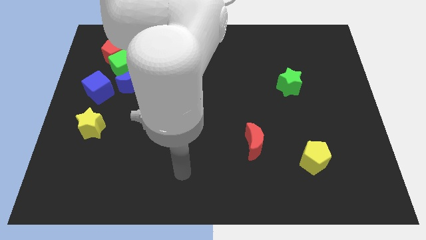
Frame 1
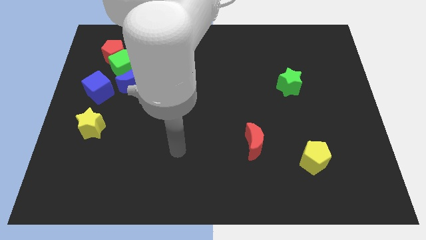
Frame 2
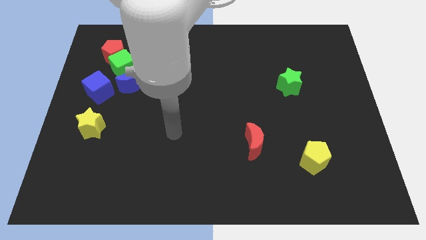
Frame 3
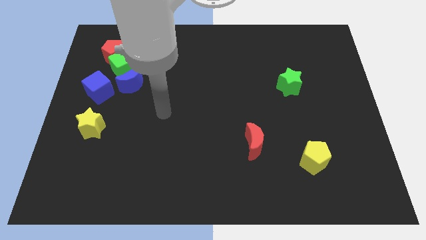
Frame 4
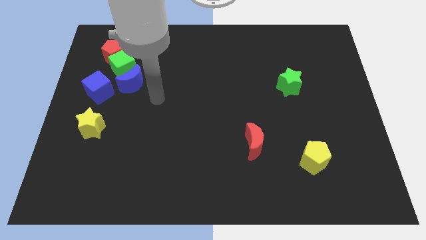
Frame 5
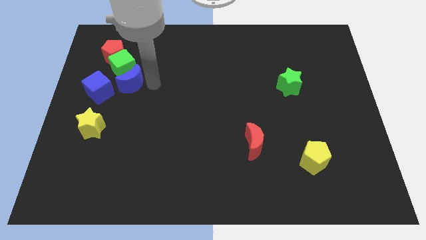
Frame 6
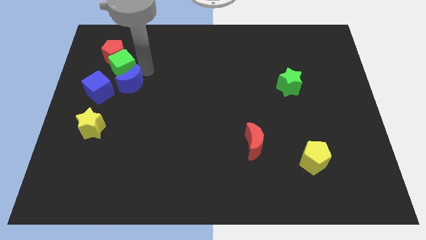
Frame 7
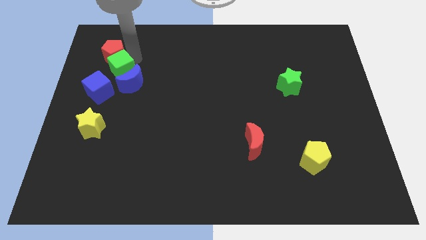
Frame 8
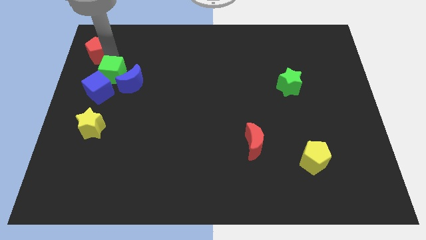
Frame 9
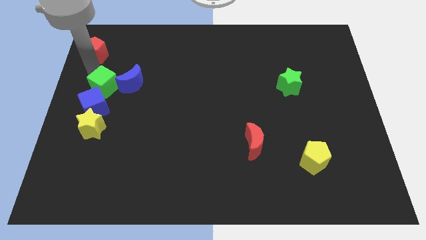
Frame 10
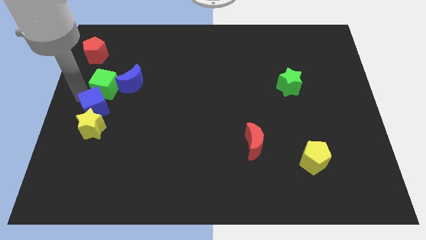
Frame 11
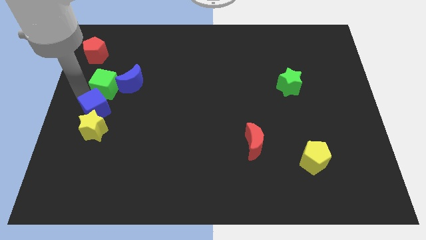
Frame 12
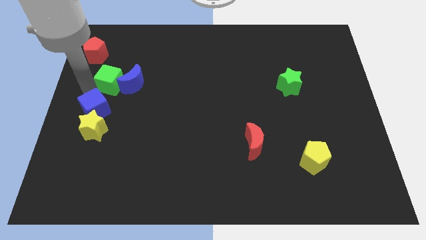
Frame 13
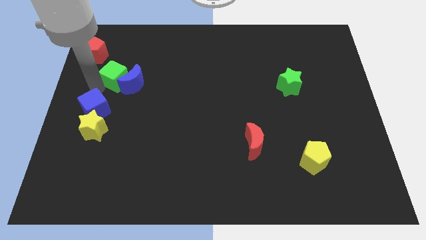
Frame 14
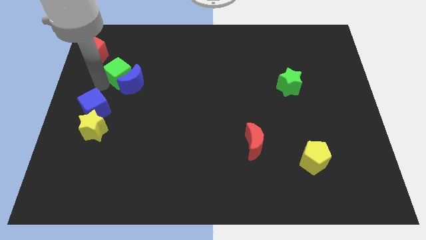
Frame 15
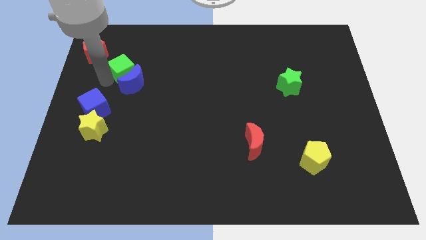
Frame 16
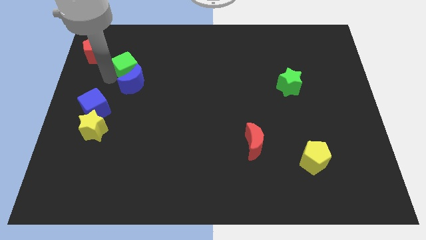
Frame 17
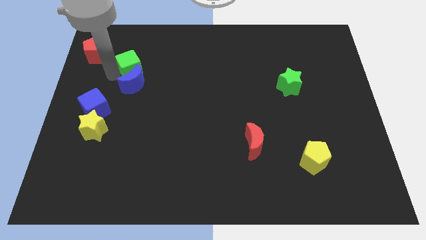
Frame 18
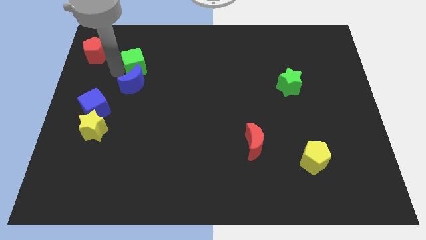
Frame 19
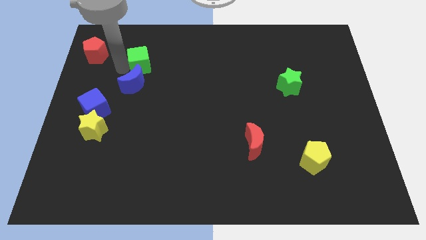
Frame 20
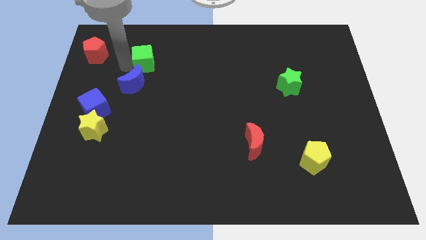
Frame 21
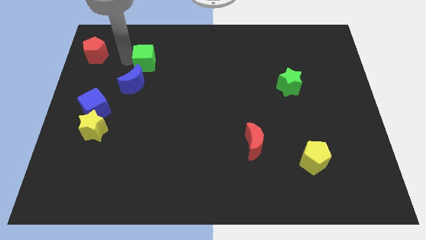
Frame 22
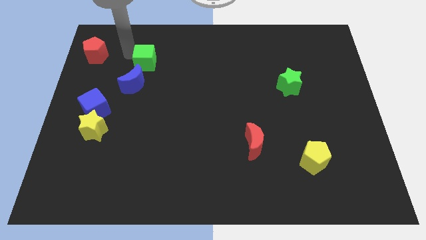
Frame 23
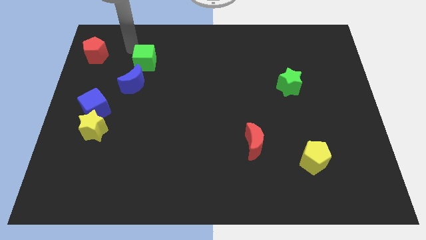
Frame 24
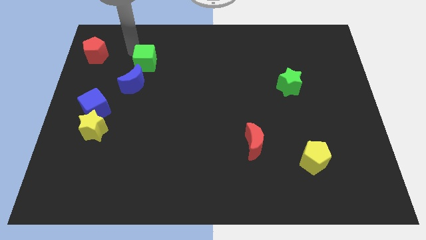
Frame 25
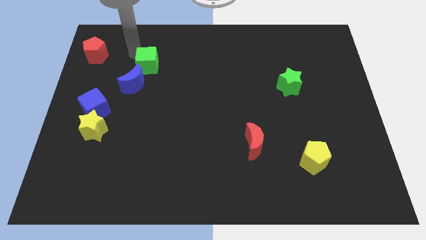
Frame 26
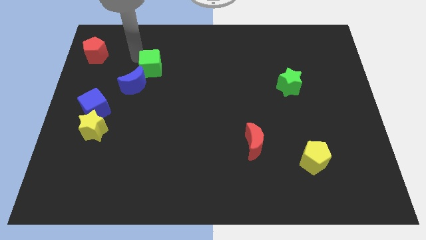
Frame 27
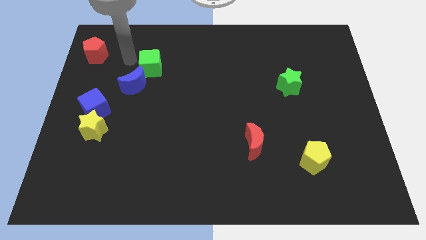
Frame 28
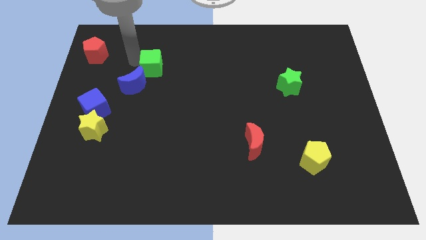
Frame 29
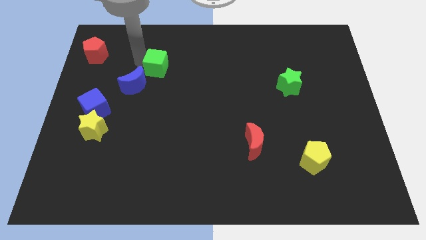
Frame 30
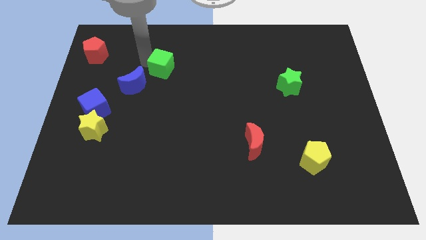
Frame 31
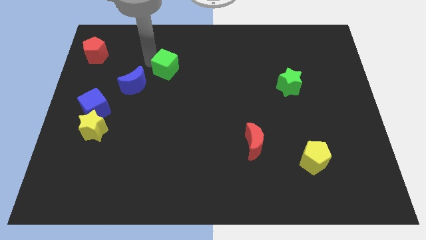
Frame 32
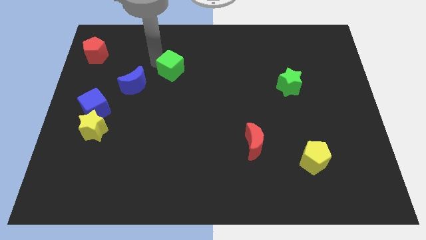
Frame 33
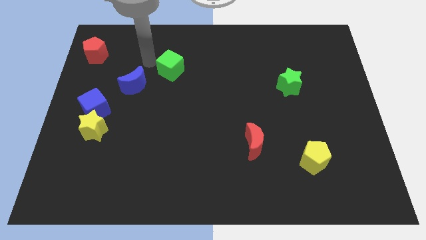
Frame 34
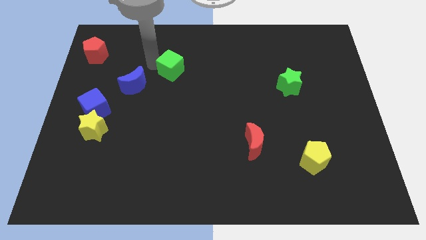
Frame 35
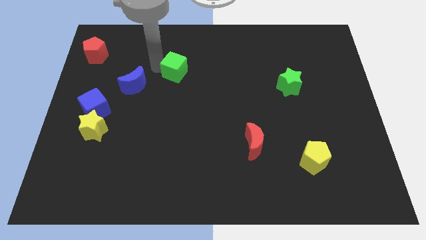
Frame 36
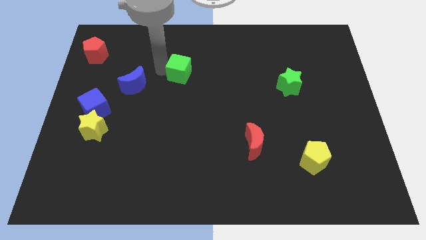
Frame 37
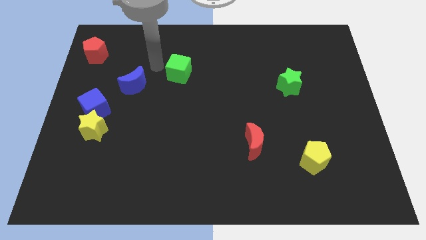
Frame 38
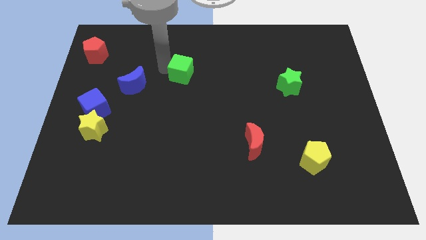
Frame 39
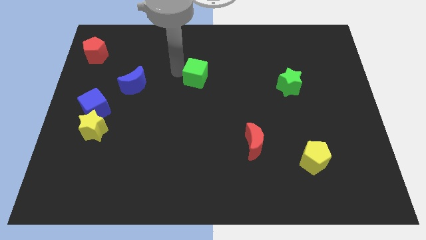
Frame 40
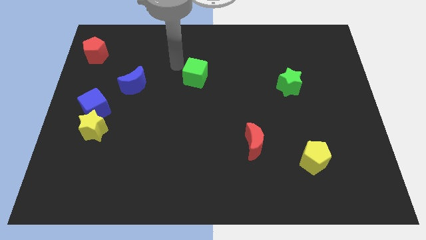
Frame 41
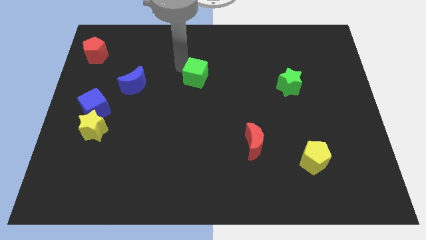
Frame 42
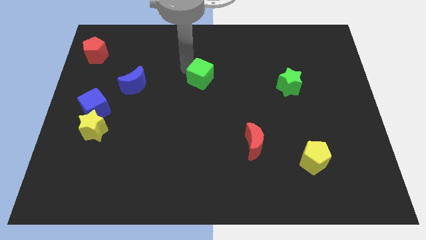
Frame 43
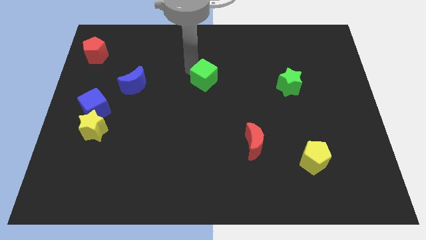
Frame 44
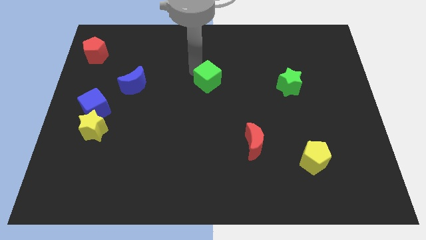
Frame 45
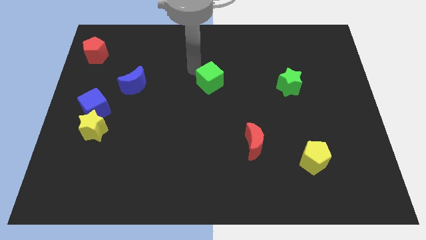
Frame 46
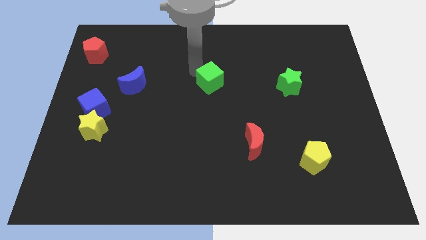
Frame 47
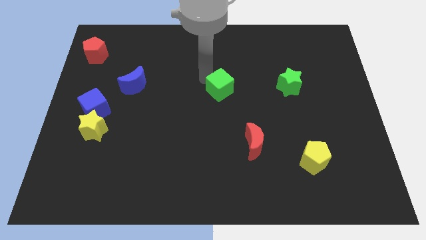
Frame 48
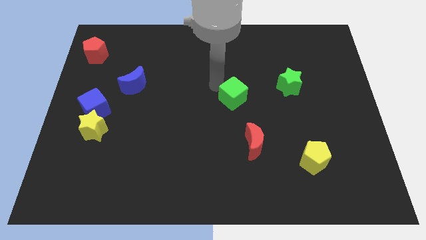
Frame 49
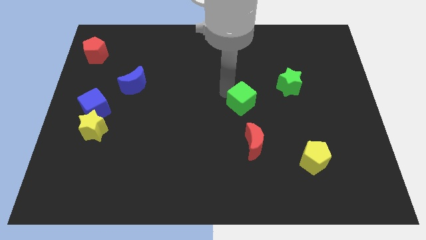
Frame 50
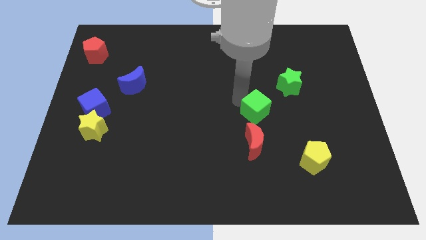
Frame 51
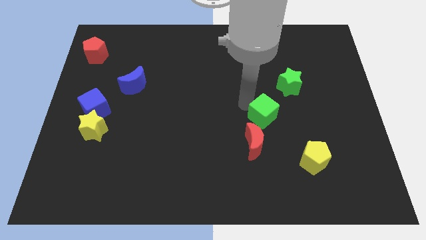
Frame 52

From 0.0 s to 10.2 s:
move the green cube diagonally up and to the right of the red moon

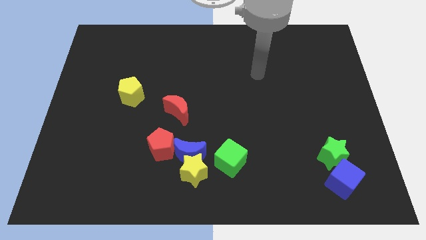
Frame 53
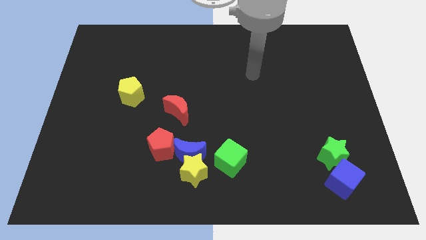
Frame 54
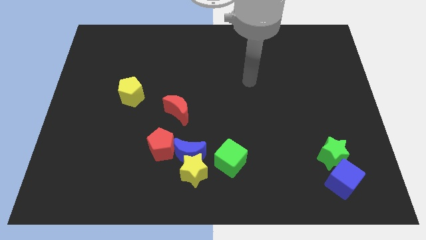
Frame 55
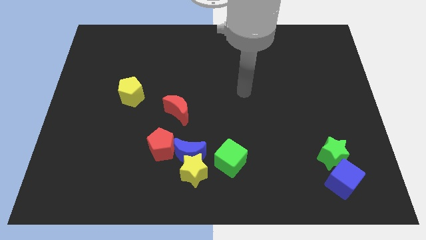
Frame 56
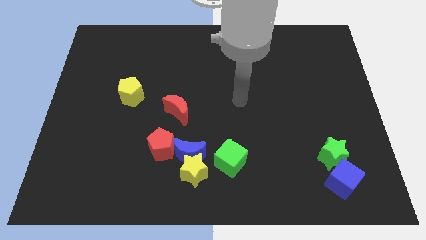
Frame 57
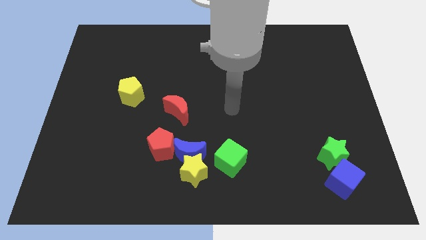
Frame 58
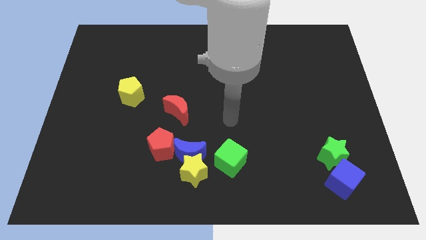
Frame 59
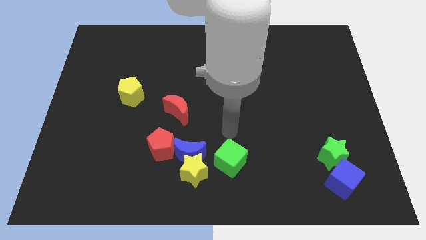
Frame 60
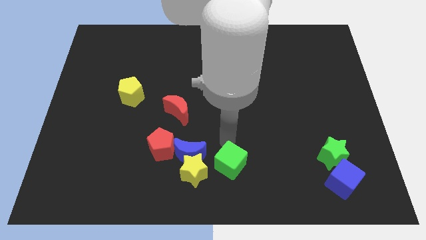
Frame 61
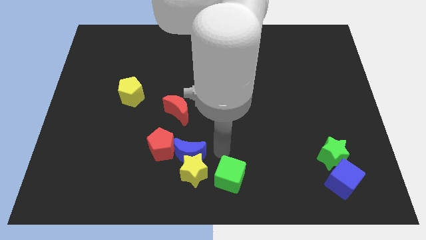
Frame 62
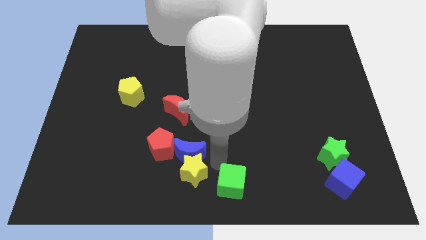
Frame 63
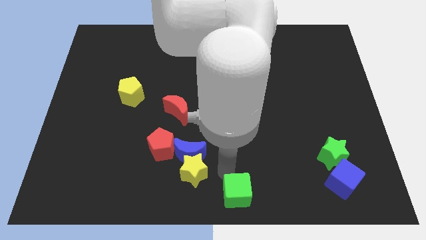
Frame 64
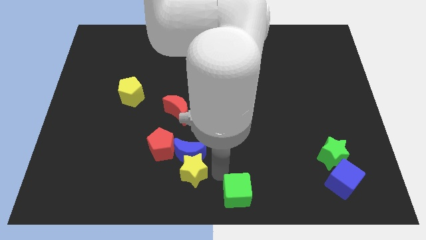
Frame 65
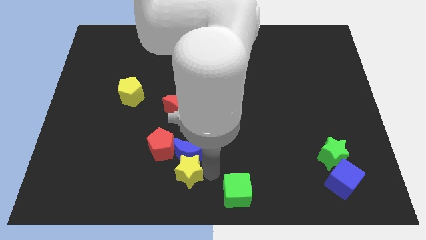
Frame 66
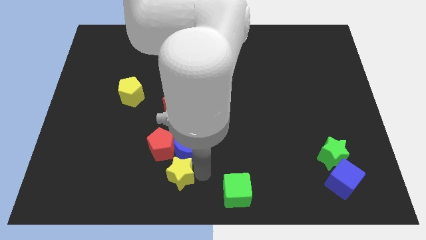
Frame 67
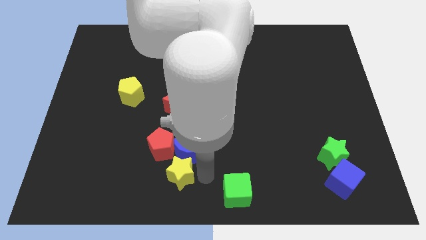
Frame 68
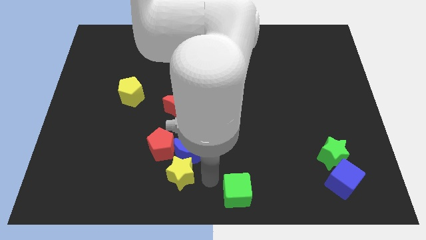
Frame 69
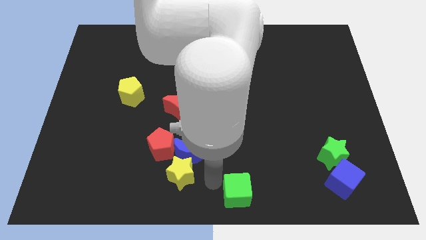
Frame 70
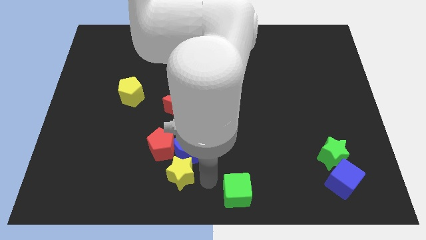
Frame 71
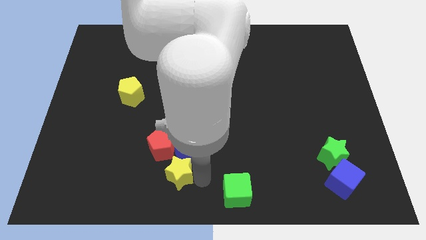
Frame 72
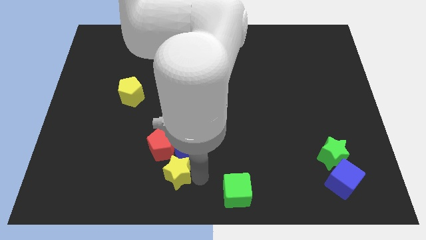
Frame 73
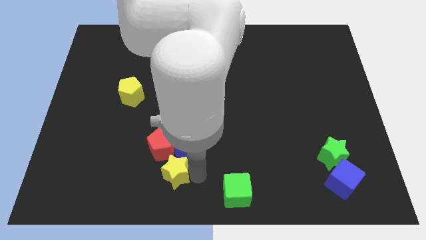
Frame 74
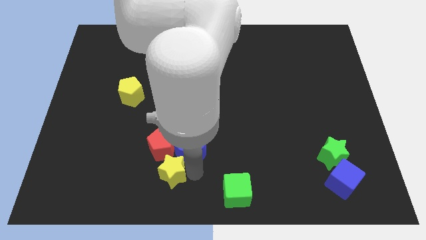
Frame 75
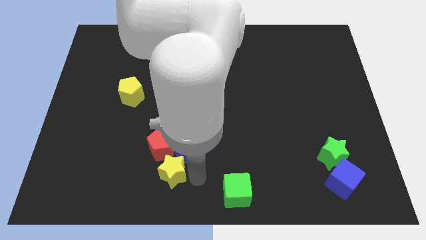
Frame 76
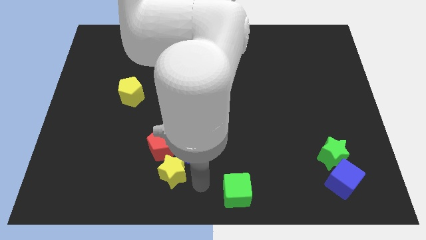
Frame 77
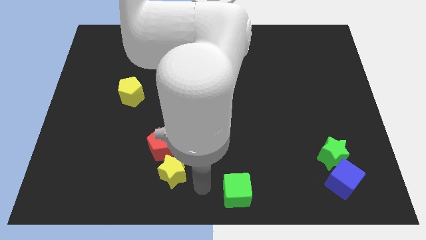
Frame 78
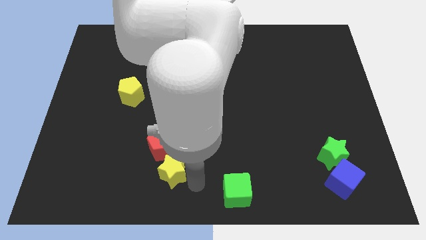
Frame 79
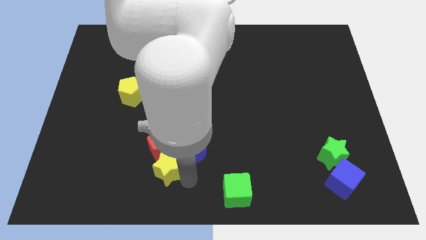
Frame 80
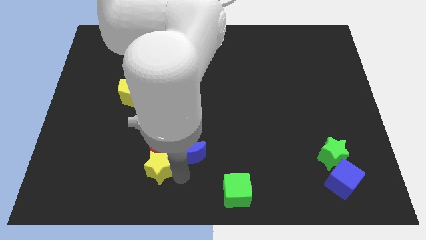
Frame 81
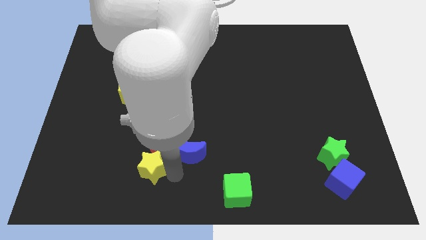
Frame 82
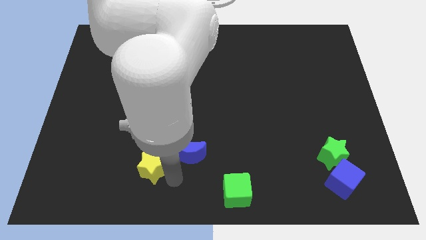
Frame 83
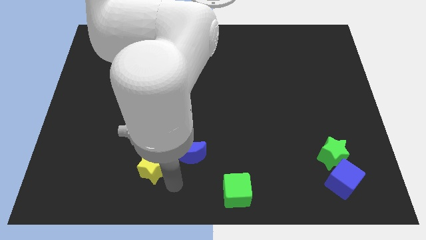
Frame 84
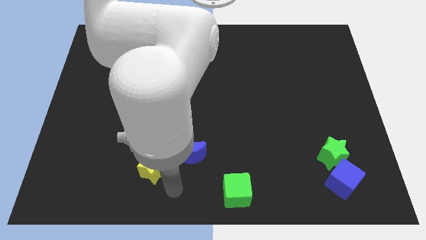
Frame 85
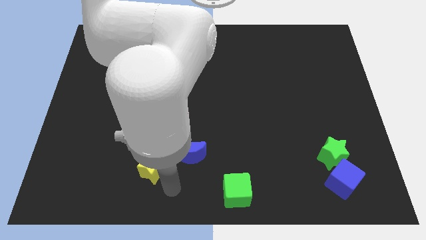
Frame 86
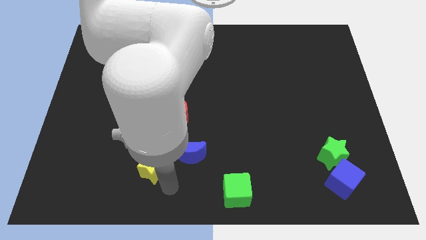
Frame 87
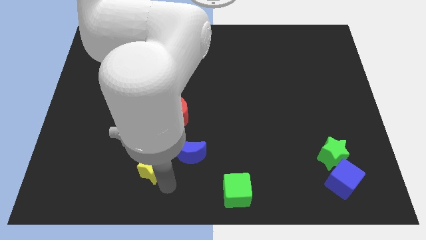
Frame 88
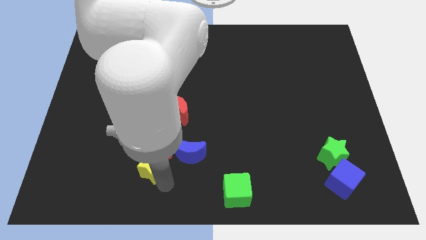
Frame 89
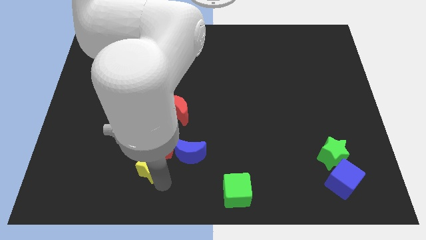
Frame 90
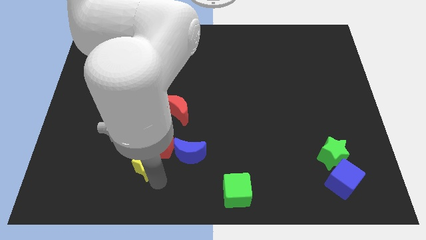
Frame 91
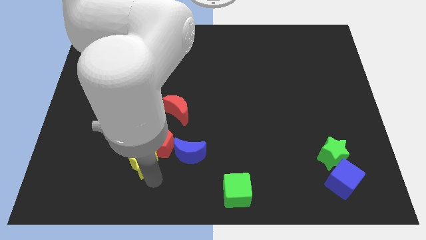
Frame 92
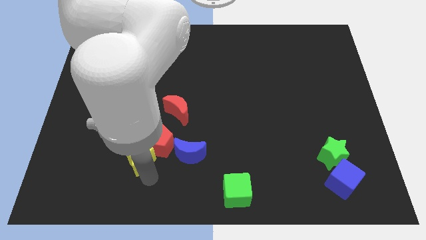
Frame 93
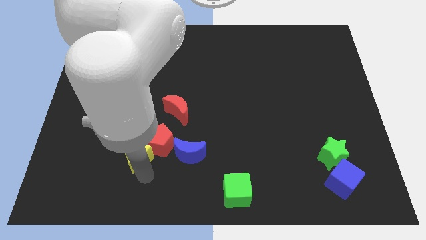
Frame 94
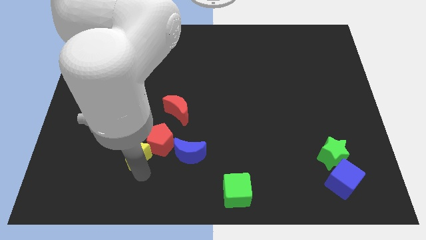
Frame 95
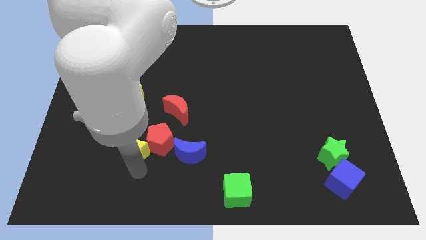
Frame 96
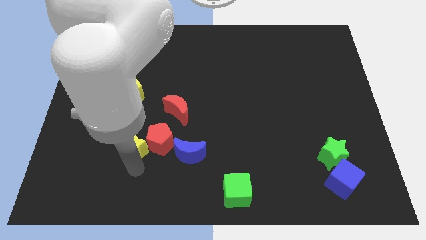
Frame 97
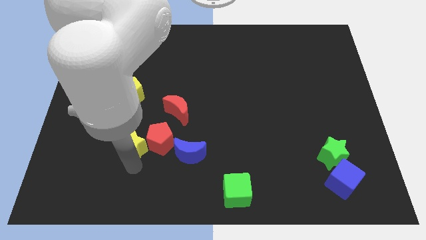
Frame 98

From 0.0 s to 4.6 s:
push the yellow star to the bottom of the yellow pentagon
